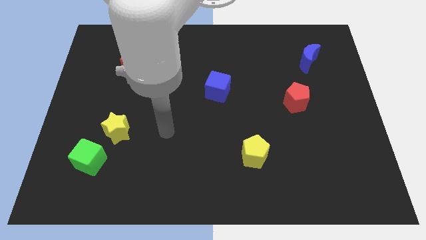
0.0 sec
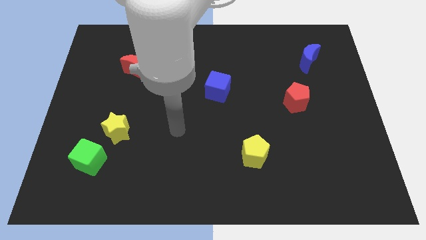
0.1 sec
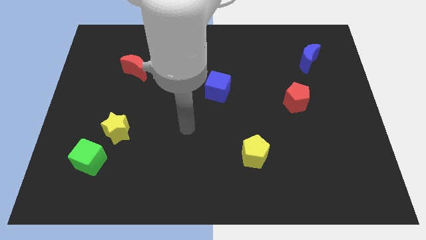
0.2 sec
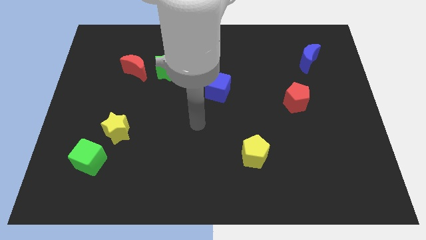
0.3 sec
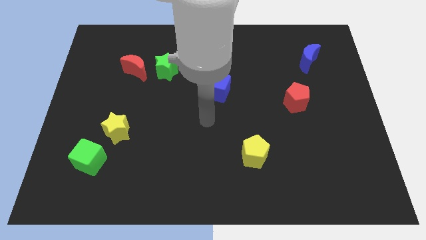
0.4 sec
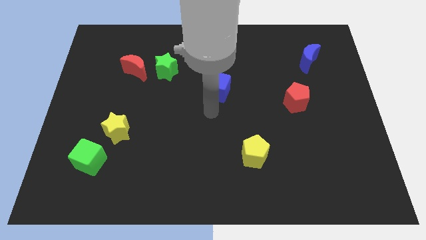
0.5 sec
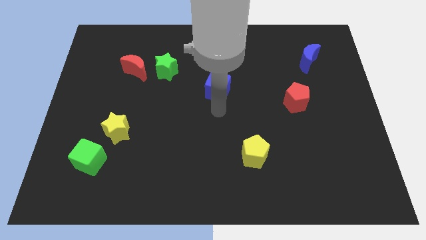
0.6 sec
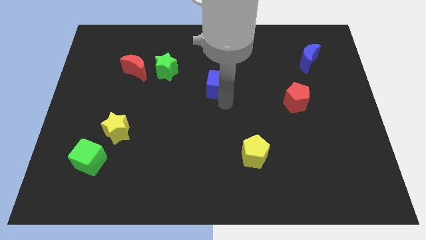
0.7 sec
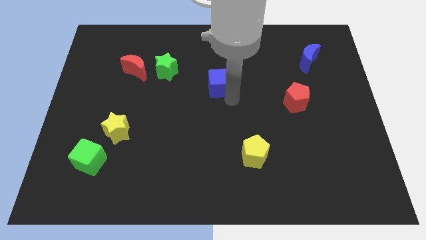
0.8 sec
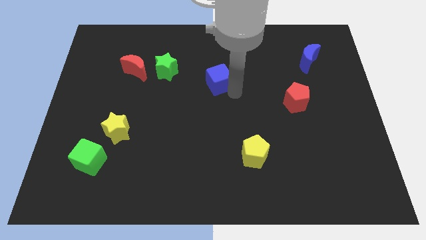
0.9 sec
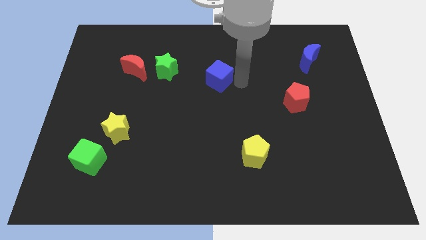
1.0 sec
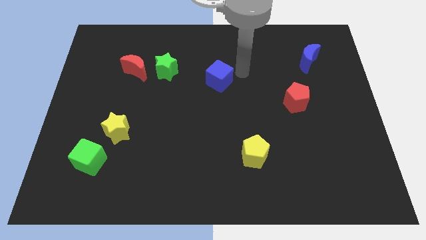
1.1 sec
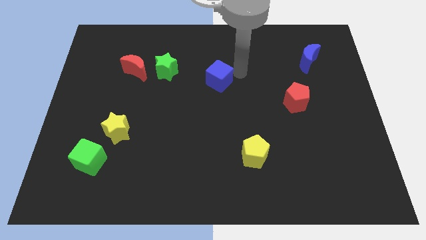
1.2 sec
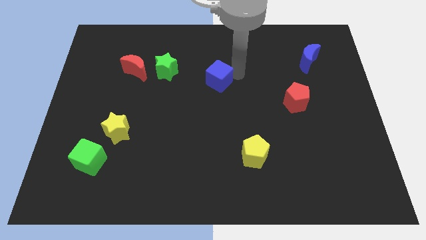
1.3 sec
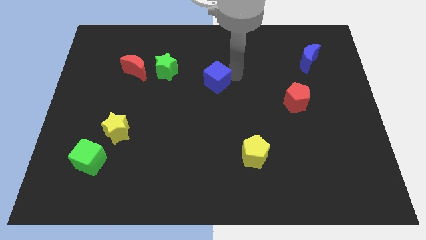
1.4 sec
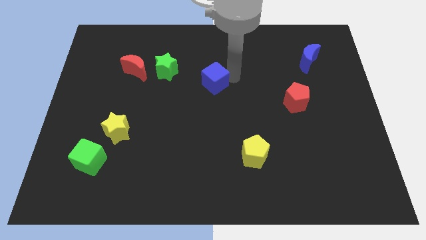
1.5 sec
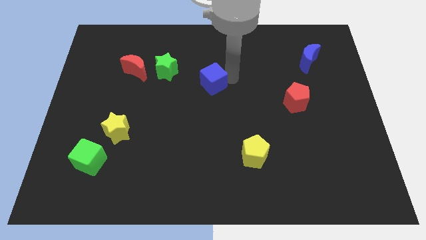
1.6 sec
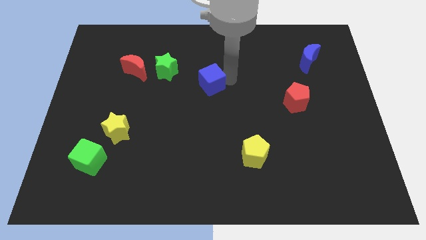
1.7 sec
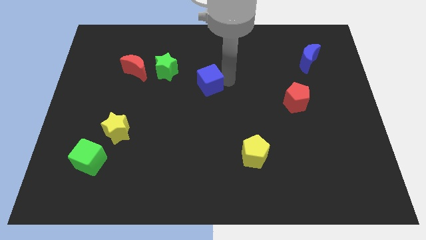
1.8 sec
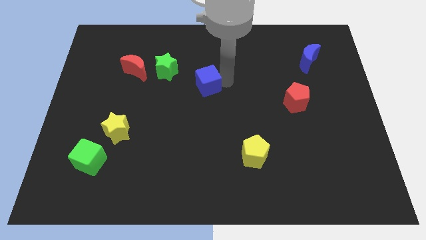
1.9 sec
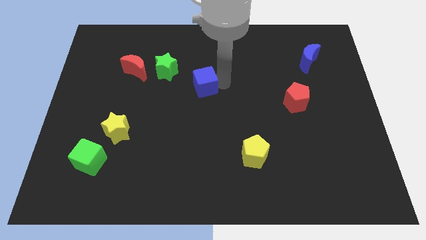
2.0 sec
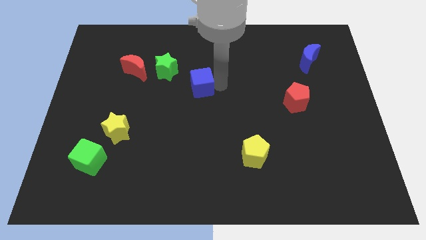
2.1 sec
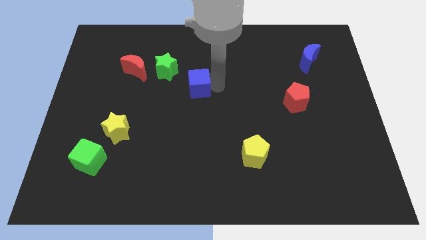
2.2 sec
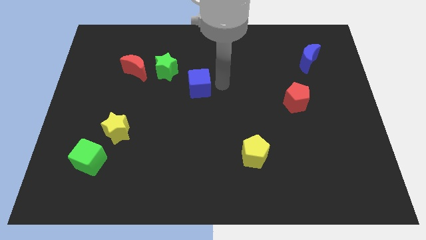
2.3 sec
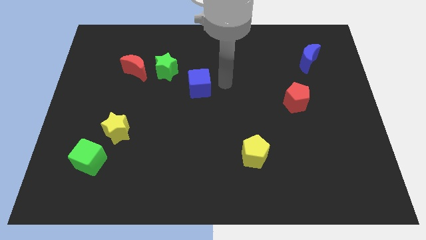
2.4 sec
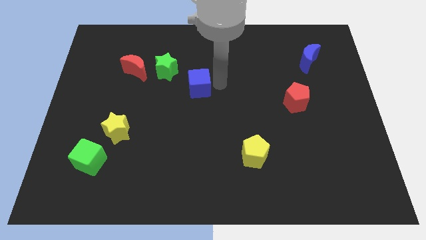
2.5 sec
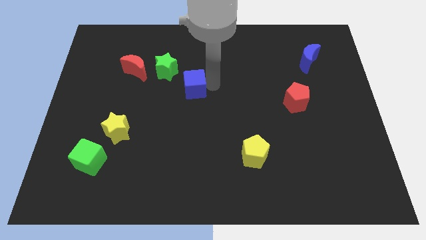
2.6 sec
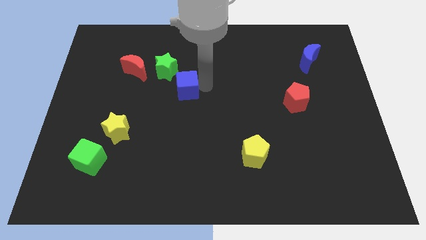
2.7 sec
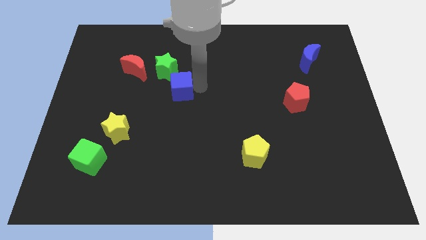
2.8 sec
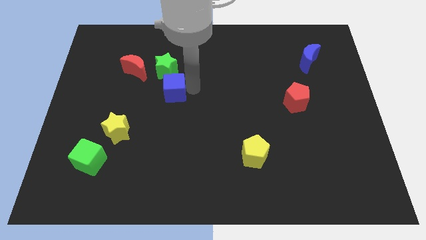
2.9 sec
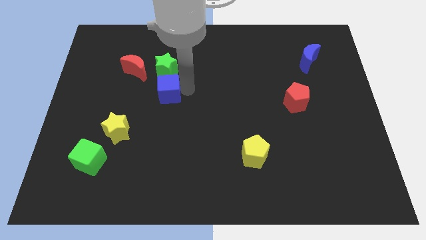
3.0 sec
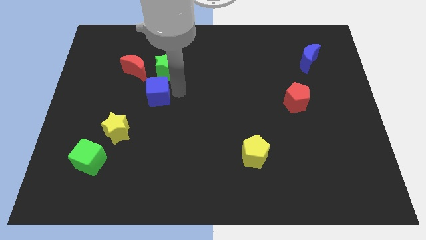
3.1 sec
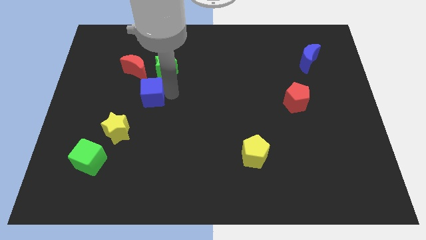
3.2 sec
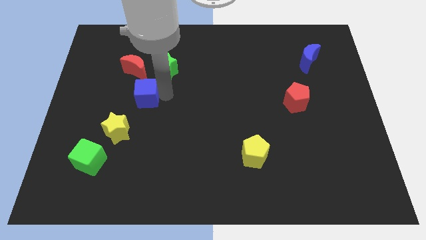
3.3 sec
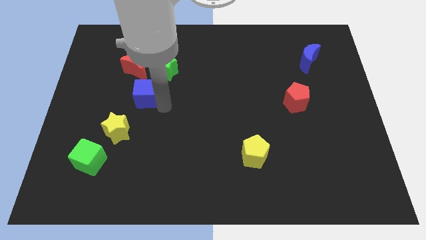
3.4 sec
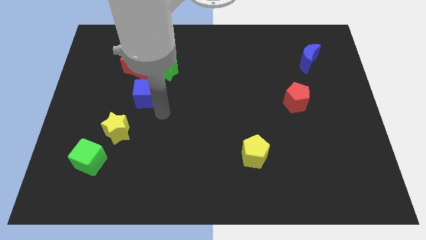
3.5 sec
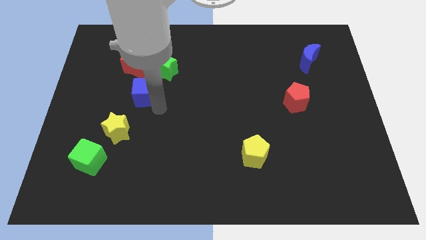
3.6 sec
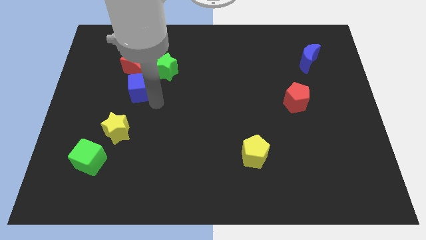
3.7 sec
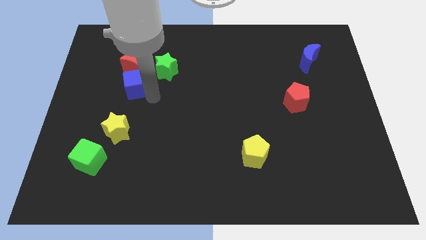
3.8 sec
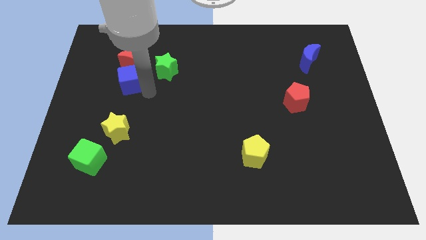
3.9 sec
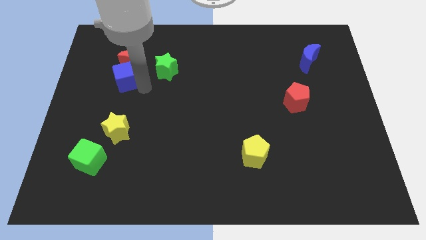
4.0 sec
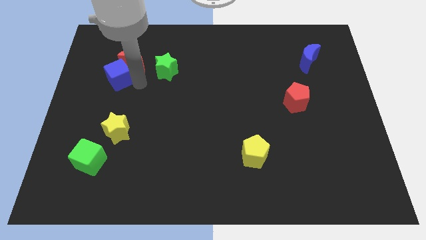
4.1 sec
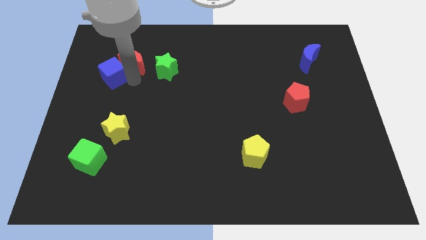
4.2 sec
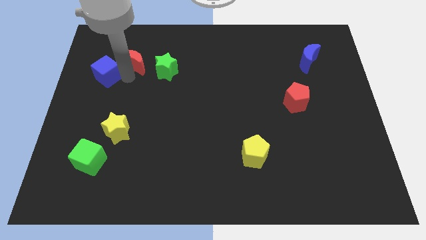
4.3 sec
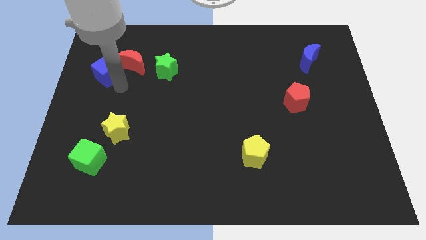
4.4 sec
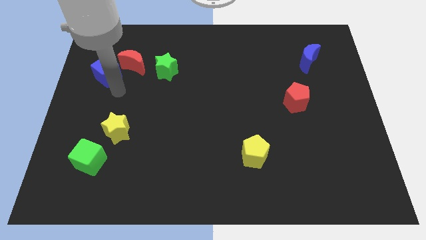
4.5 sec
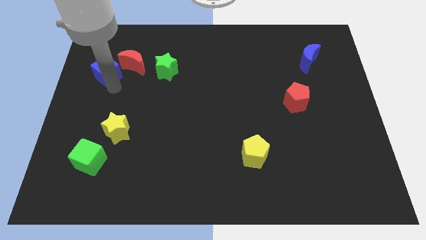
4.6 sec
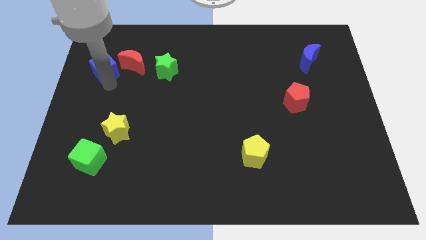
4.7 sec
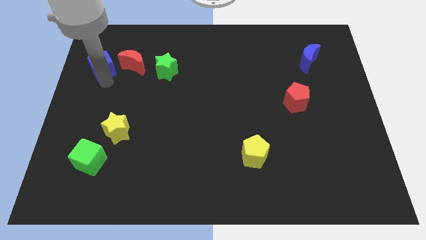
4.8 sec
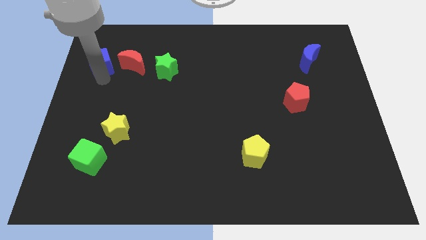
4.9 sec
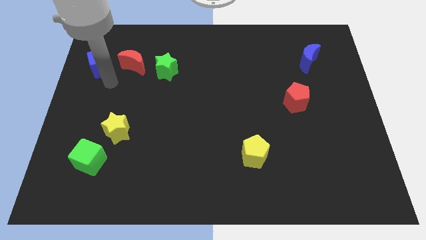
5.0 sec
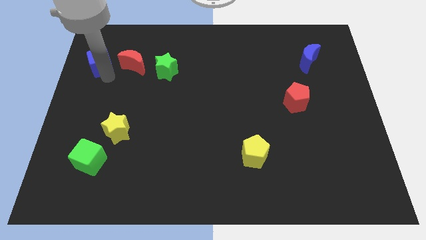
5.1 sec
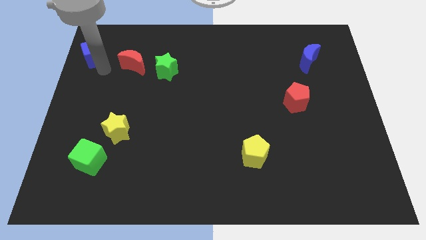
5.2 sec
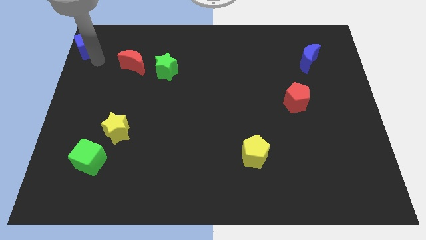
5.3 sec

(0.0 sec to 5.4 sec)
push the blue cube to the top left of the board

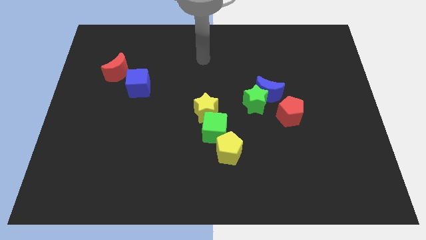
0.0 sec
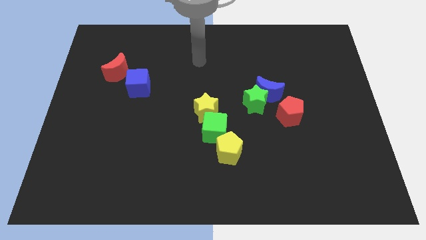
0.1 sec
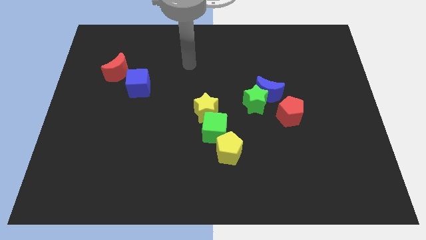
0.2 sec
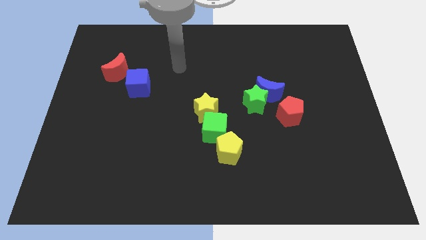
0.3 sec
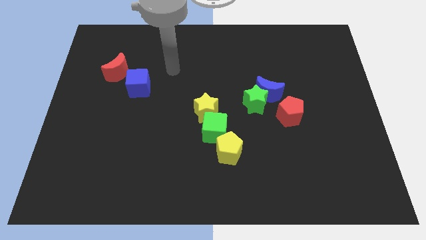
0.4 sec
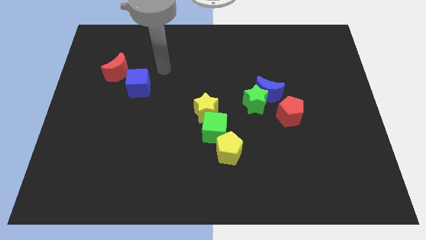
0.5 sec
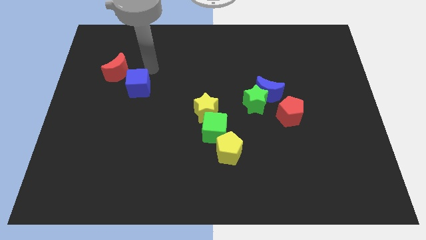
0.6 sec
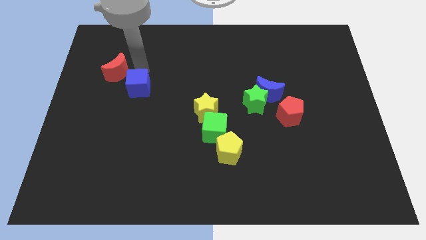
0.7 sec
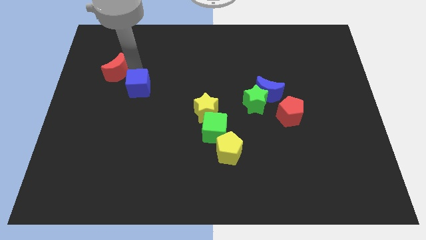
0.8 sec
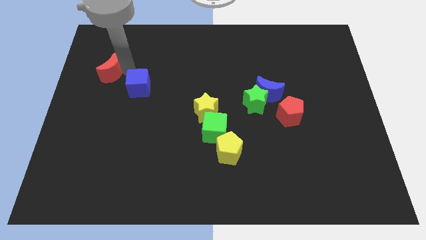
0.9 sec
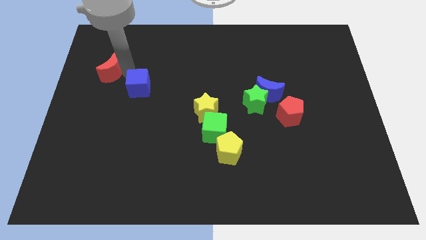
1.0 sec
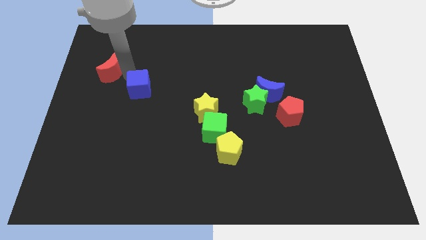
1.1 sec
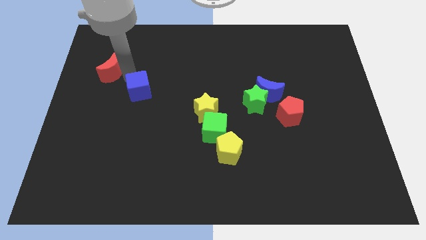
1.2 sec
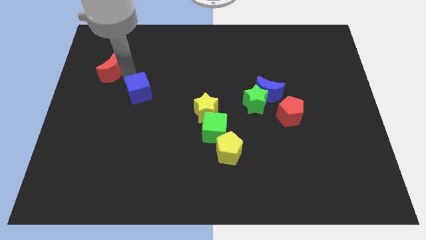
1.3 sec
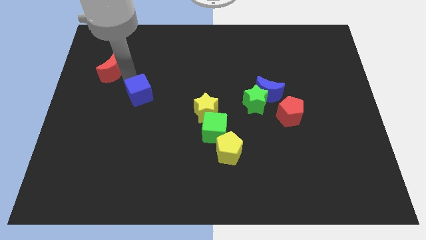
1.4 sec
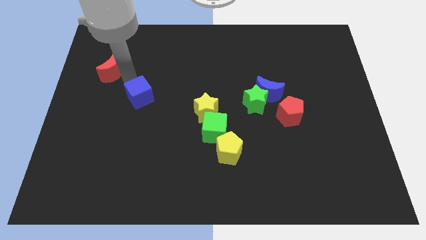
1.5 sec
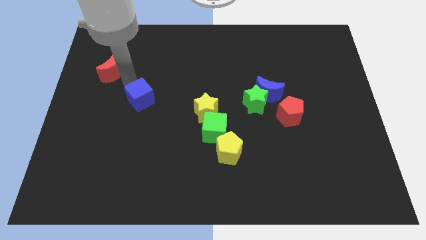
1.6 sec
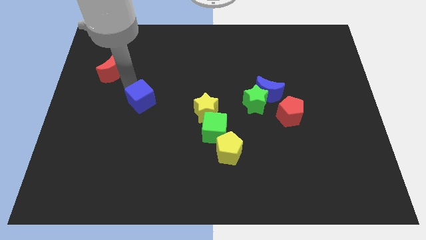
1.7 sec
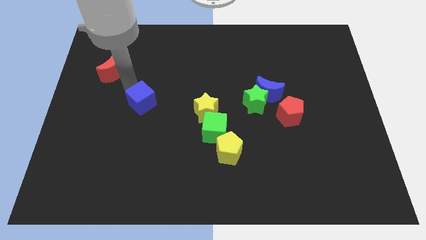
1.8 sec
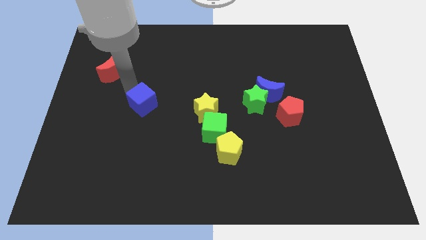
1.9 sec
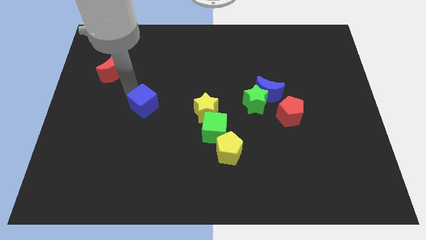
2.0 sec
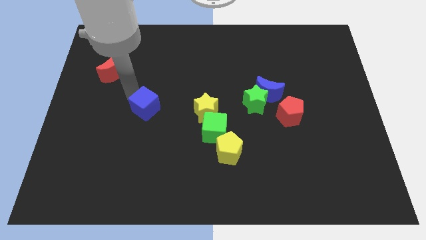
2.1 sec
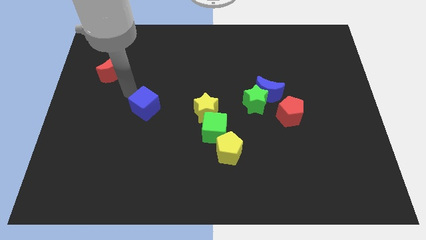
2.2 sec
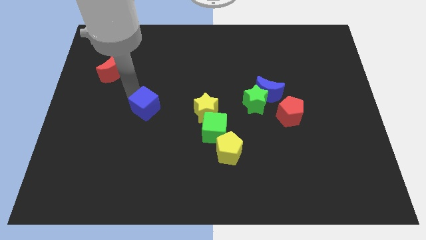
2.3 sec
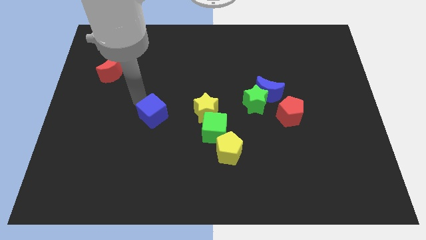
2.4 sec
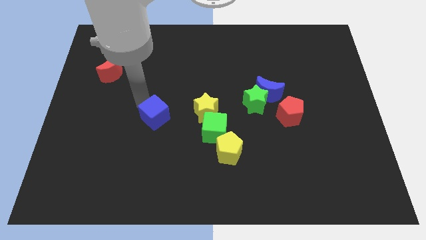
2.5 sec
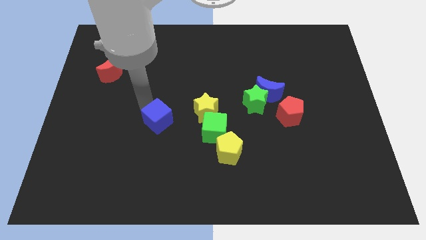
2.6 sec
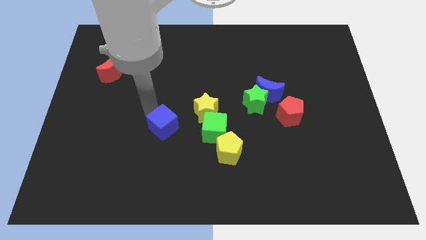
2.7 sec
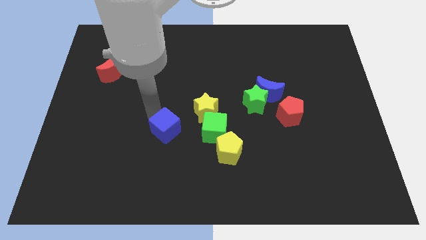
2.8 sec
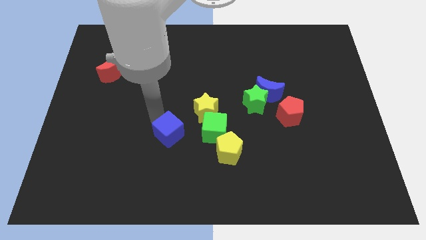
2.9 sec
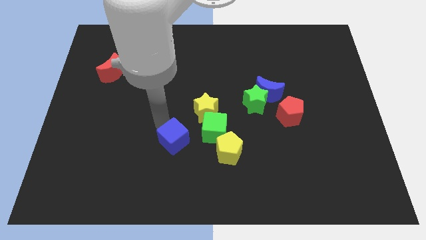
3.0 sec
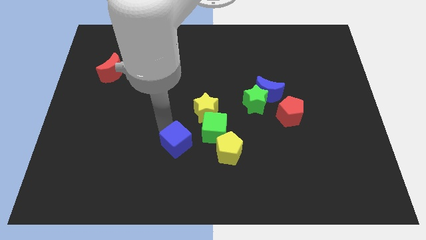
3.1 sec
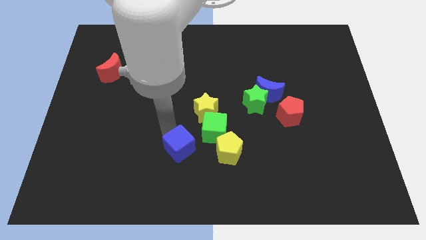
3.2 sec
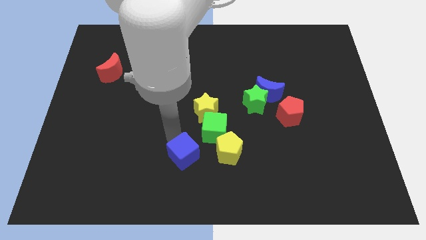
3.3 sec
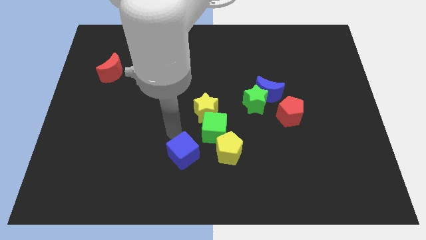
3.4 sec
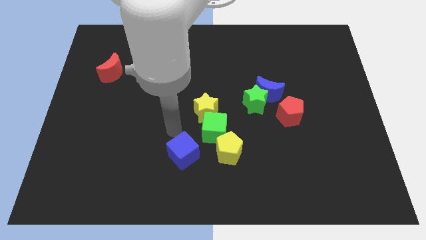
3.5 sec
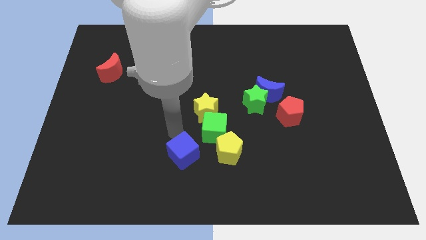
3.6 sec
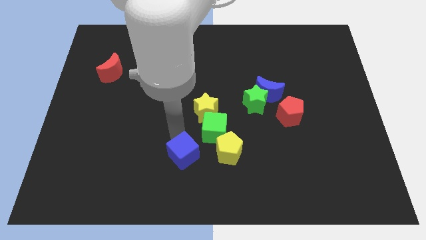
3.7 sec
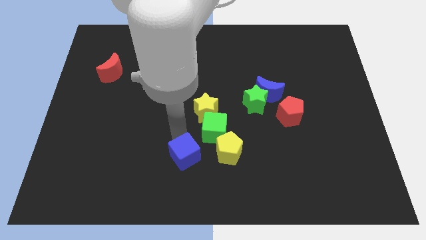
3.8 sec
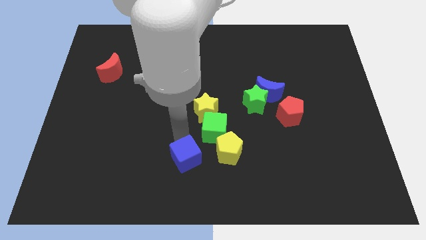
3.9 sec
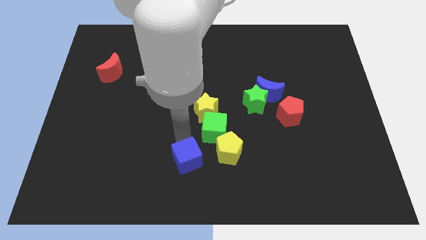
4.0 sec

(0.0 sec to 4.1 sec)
move the blue cube to the bottom
